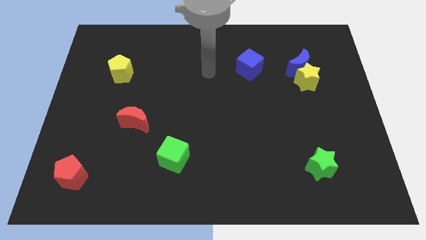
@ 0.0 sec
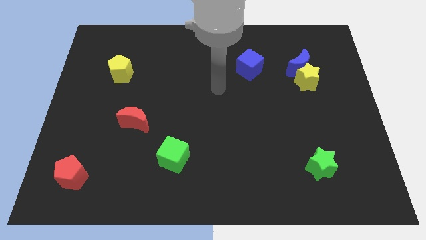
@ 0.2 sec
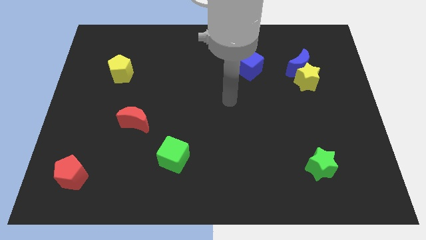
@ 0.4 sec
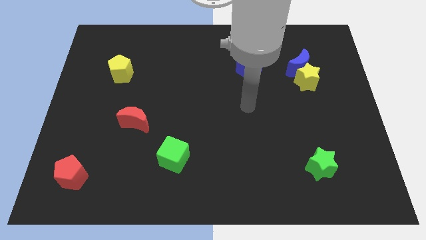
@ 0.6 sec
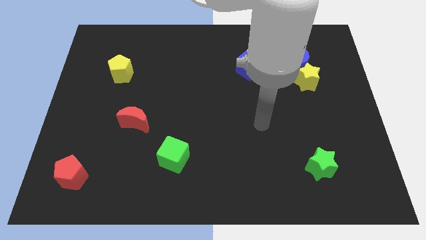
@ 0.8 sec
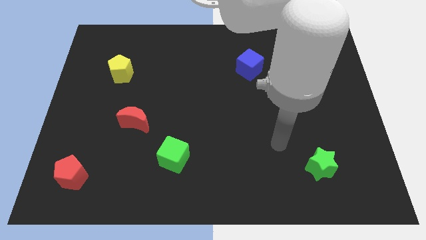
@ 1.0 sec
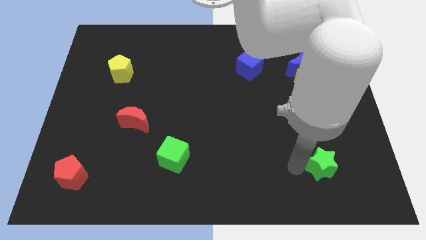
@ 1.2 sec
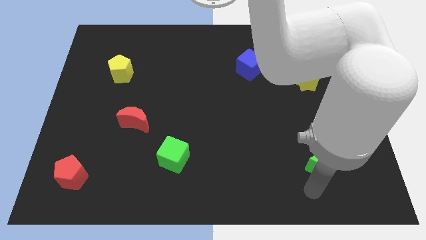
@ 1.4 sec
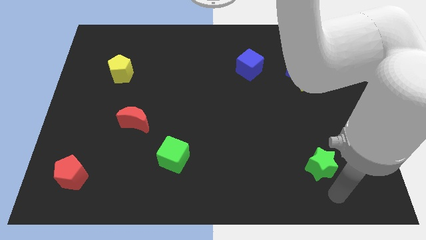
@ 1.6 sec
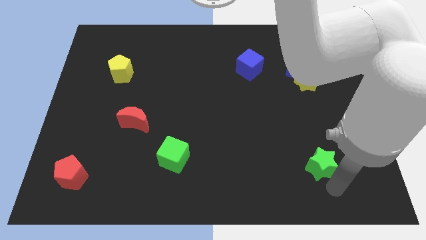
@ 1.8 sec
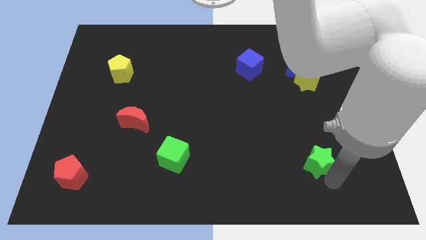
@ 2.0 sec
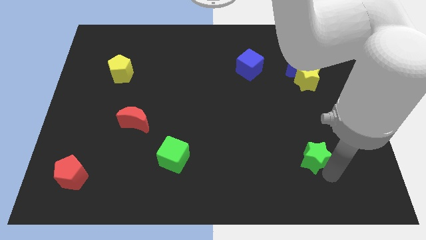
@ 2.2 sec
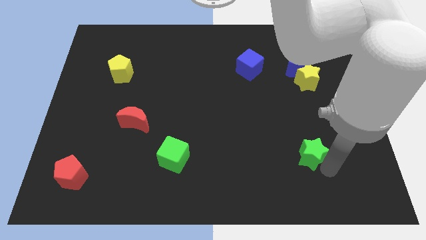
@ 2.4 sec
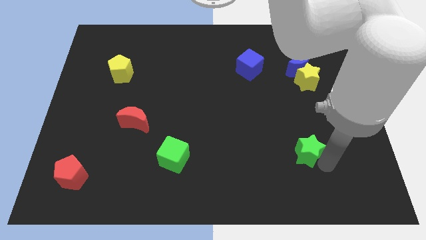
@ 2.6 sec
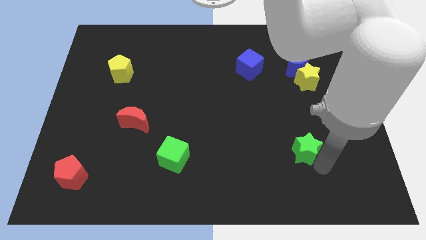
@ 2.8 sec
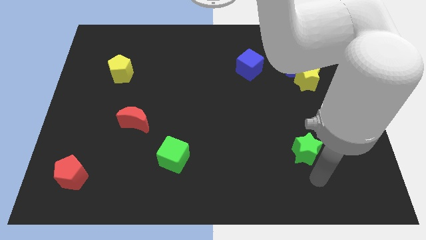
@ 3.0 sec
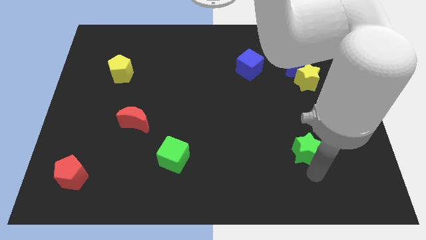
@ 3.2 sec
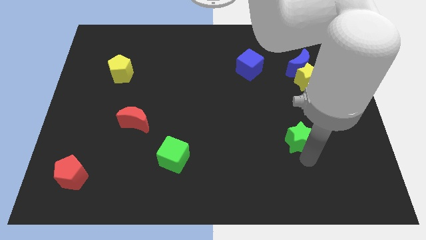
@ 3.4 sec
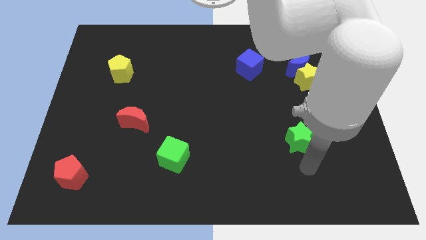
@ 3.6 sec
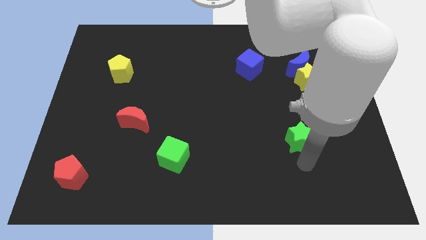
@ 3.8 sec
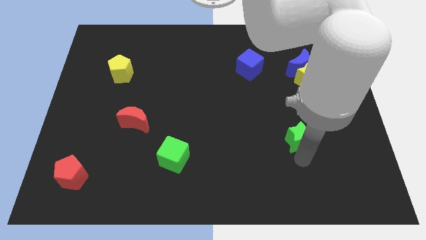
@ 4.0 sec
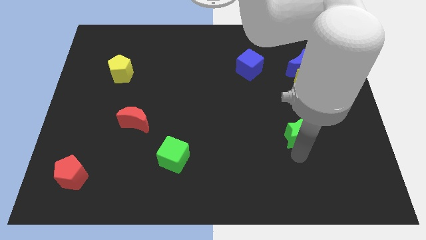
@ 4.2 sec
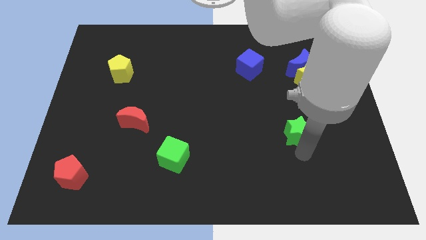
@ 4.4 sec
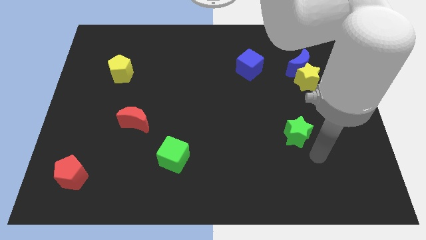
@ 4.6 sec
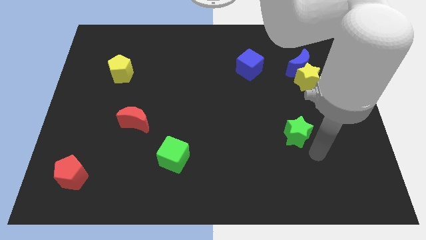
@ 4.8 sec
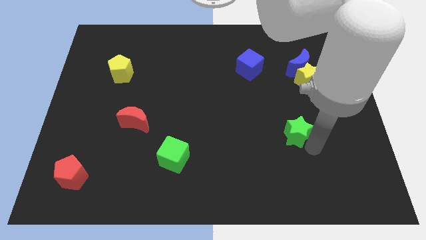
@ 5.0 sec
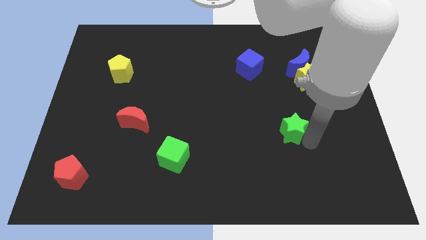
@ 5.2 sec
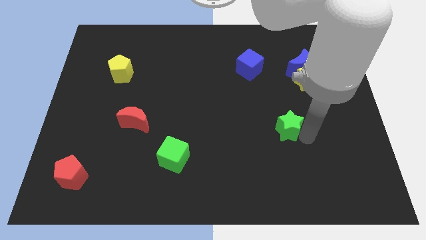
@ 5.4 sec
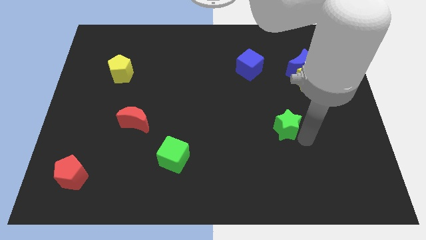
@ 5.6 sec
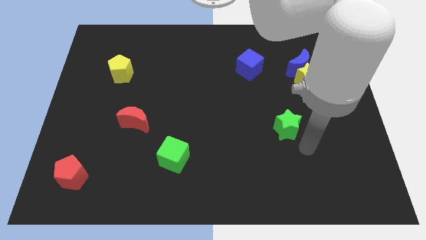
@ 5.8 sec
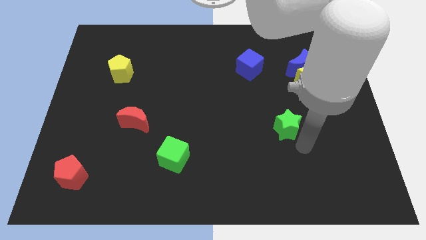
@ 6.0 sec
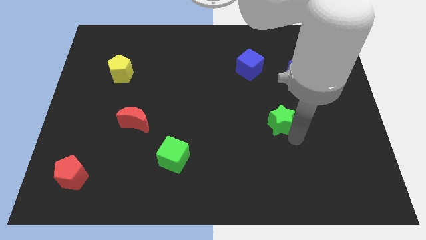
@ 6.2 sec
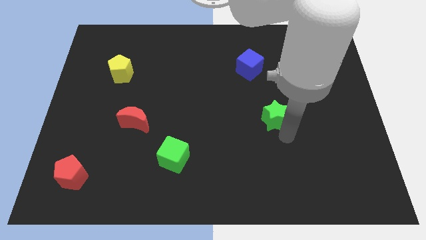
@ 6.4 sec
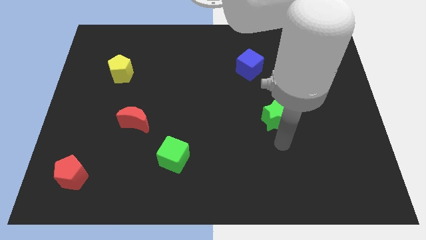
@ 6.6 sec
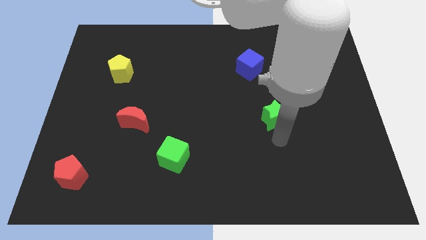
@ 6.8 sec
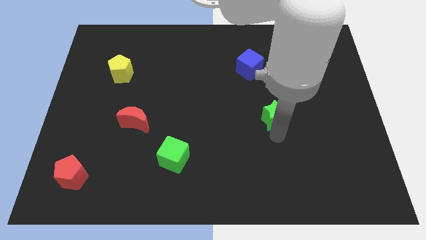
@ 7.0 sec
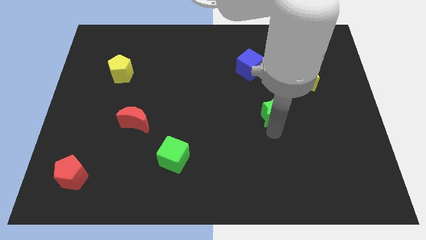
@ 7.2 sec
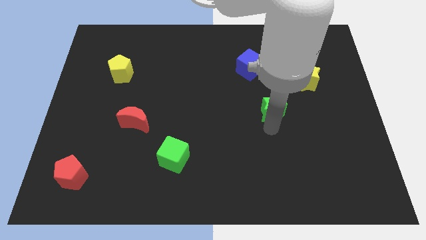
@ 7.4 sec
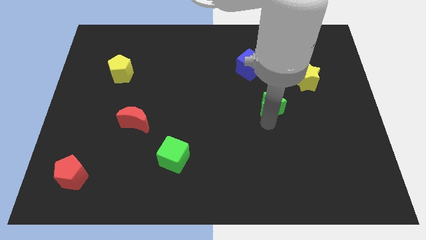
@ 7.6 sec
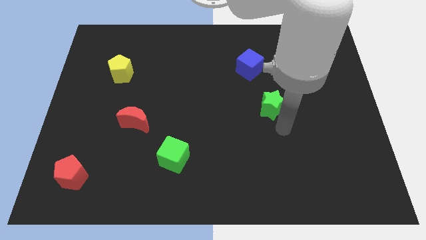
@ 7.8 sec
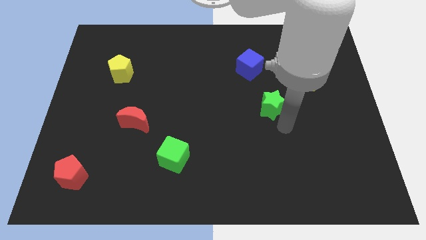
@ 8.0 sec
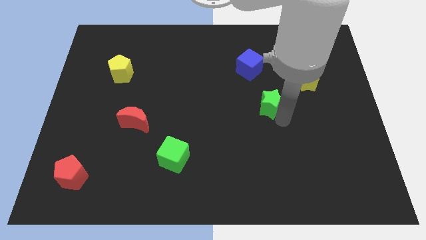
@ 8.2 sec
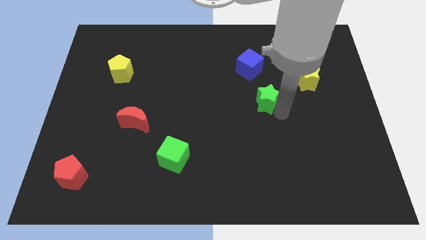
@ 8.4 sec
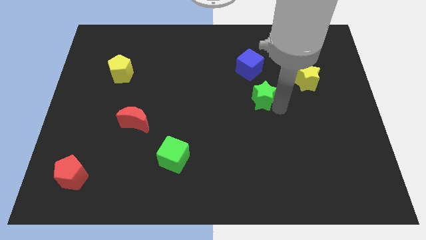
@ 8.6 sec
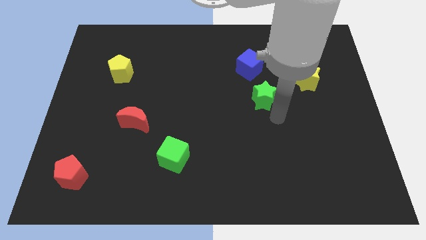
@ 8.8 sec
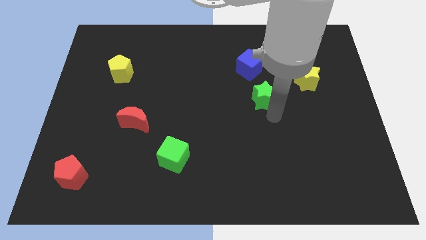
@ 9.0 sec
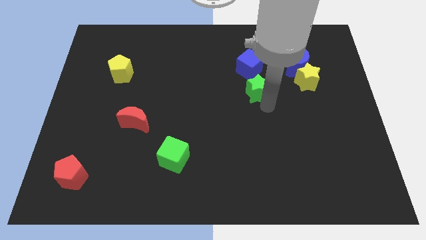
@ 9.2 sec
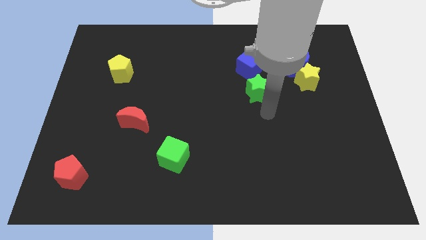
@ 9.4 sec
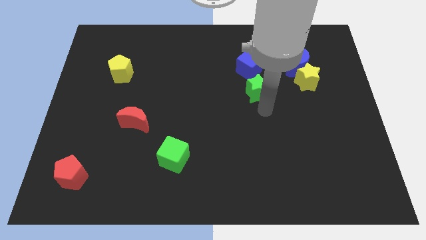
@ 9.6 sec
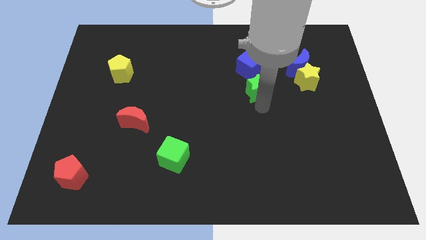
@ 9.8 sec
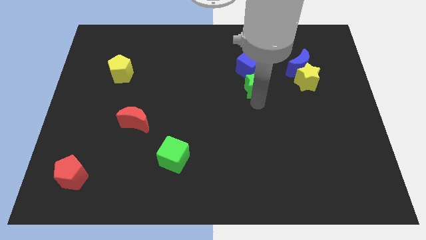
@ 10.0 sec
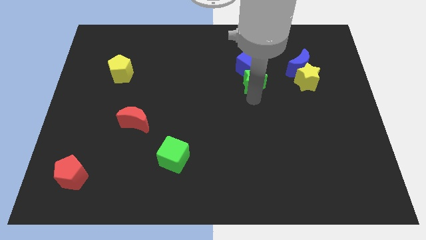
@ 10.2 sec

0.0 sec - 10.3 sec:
push the green star to the blue cube

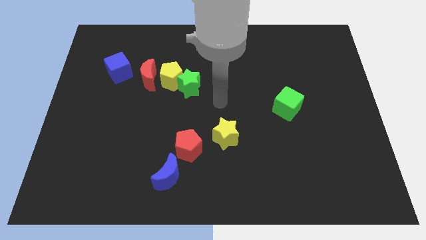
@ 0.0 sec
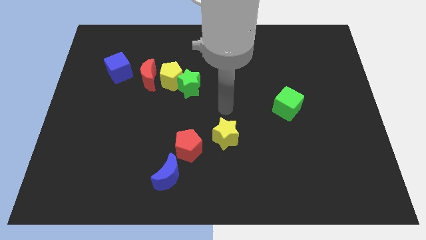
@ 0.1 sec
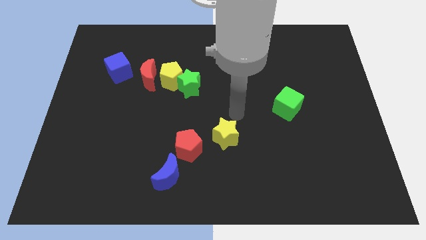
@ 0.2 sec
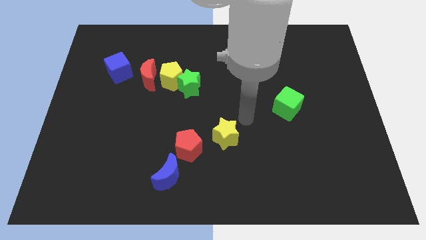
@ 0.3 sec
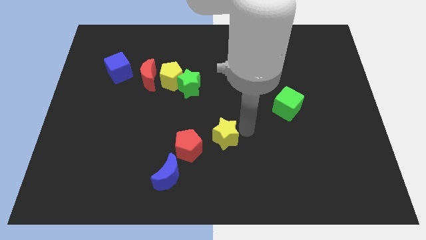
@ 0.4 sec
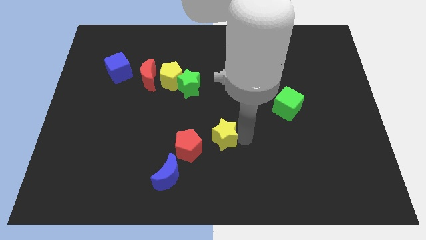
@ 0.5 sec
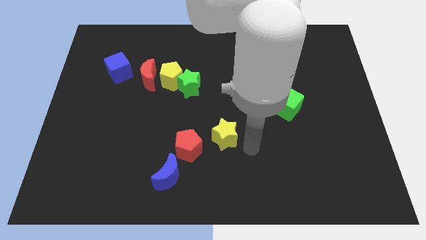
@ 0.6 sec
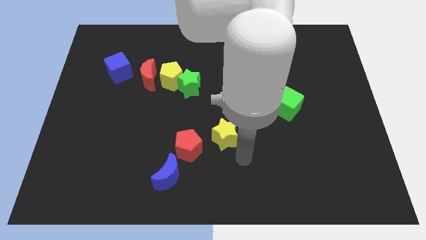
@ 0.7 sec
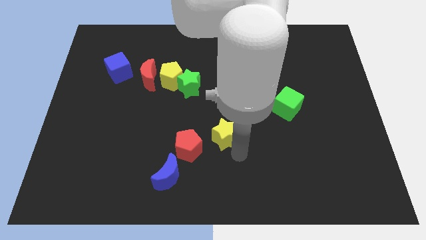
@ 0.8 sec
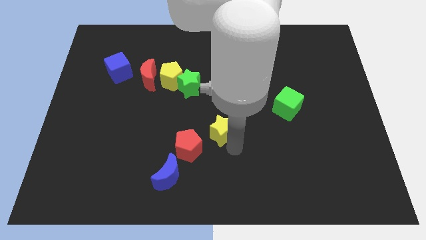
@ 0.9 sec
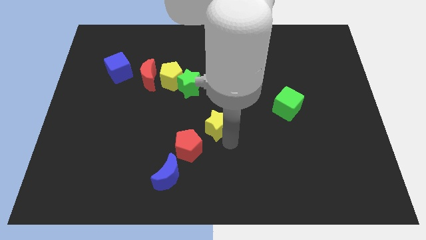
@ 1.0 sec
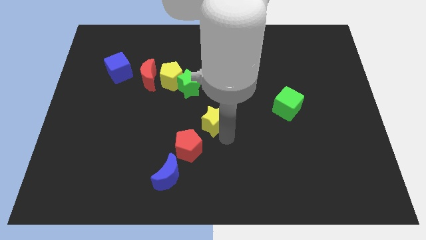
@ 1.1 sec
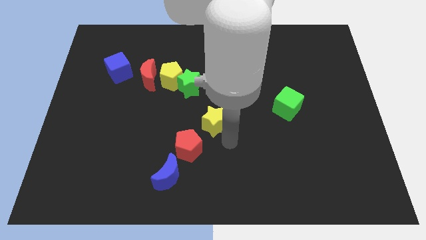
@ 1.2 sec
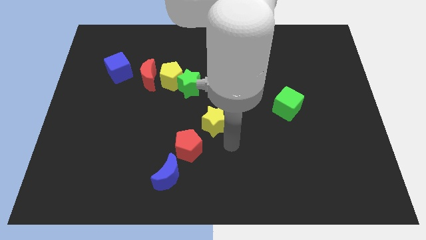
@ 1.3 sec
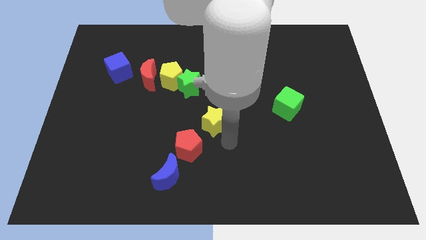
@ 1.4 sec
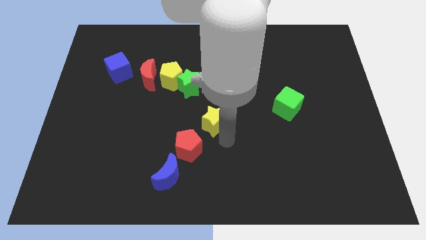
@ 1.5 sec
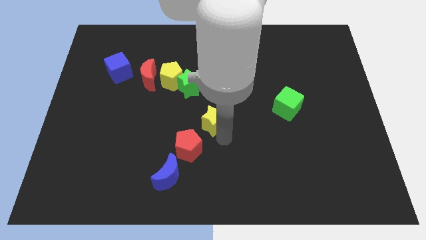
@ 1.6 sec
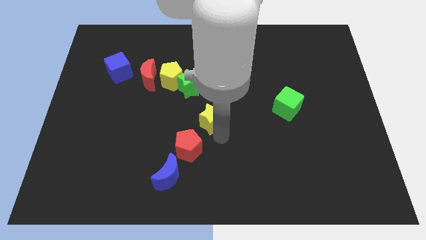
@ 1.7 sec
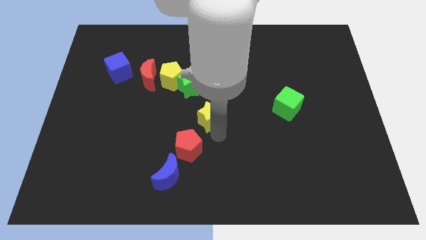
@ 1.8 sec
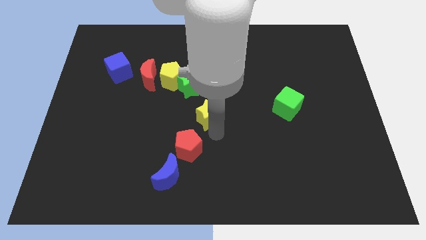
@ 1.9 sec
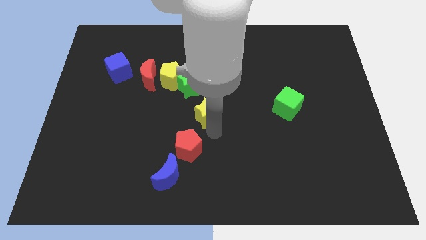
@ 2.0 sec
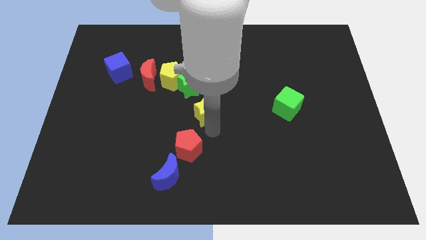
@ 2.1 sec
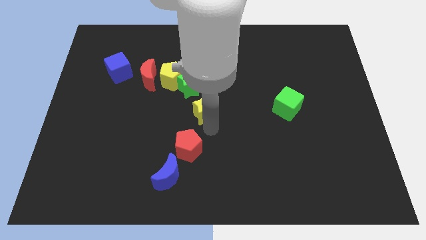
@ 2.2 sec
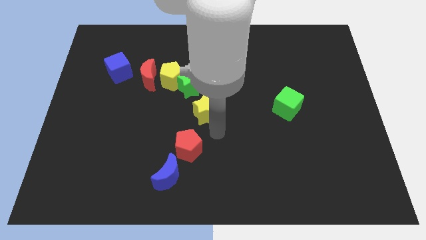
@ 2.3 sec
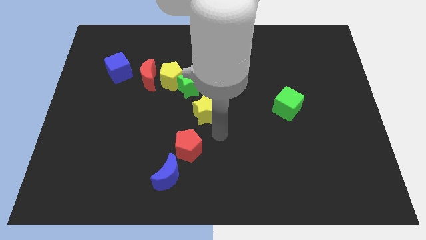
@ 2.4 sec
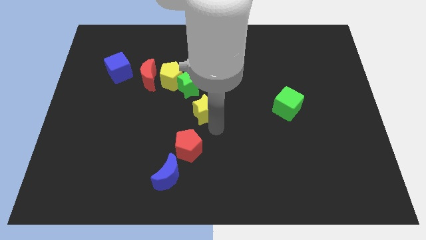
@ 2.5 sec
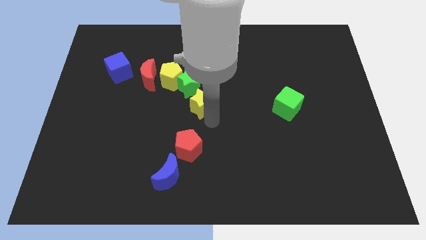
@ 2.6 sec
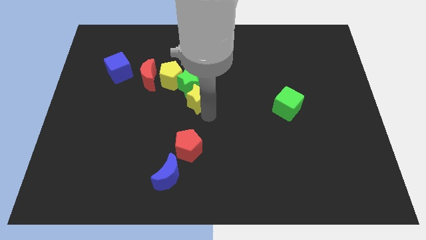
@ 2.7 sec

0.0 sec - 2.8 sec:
slide the yellow star towards the green star

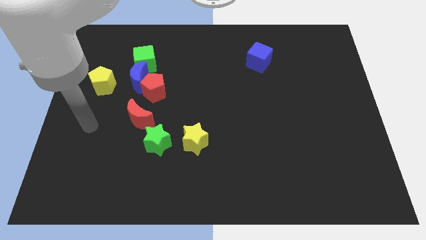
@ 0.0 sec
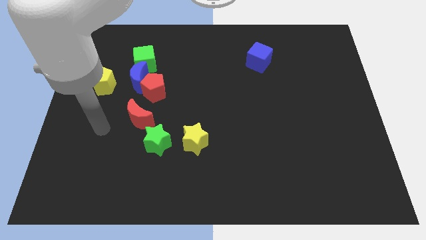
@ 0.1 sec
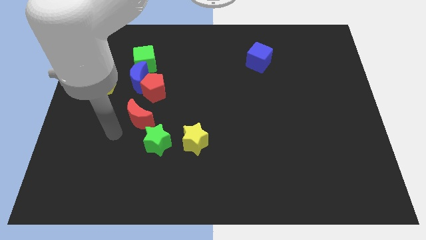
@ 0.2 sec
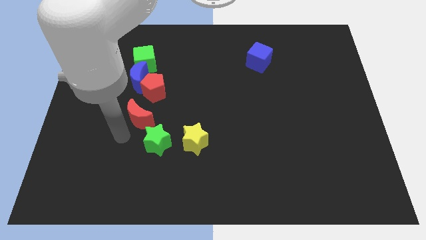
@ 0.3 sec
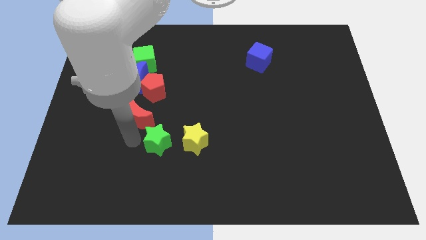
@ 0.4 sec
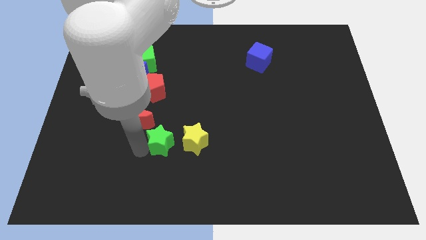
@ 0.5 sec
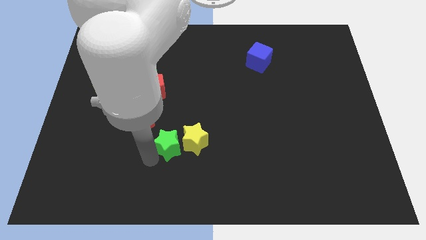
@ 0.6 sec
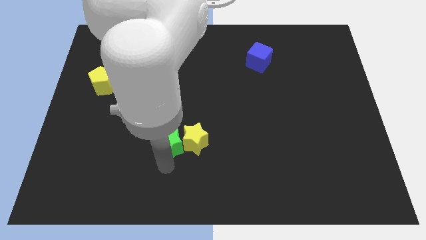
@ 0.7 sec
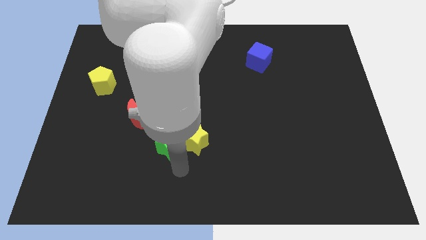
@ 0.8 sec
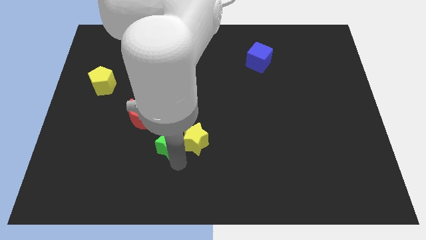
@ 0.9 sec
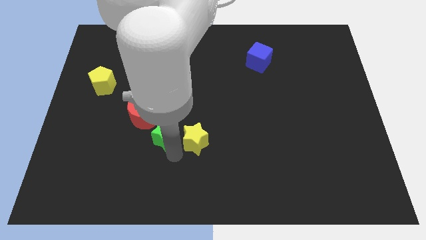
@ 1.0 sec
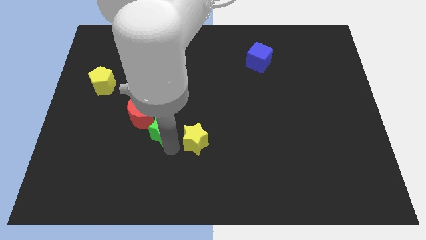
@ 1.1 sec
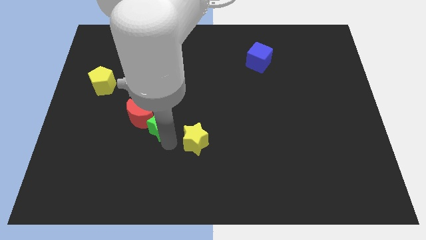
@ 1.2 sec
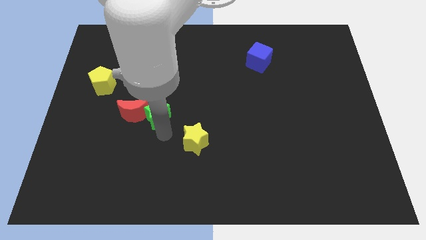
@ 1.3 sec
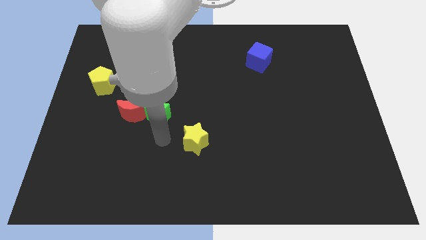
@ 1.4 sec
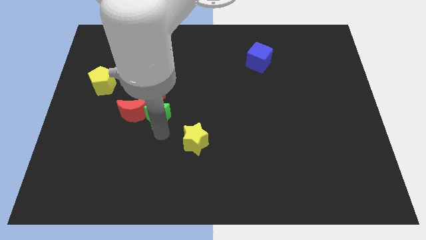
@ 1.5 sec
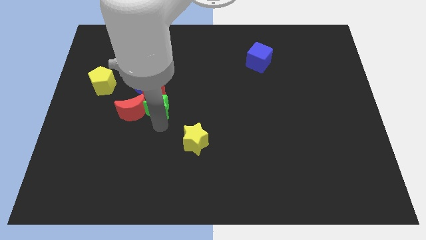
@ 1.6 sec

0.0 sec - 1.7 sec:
push the green star close to the red pentagon
